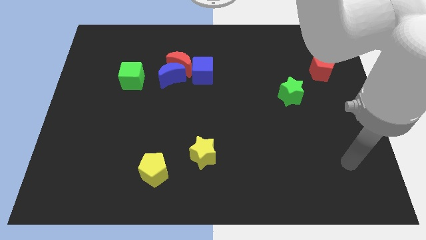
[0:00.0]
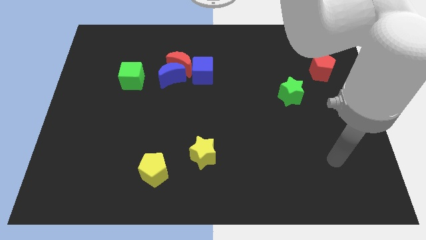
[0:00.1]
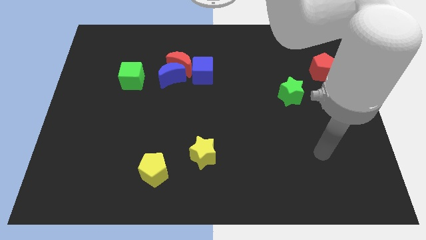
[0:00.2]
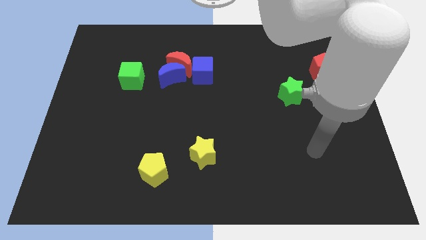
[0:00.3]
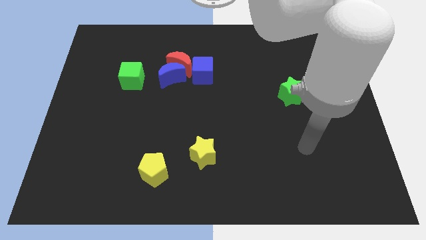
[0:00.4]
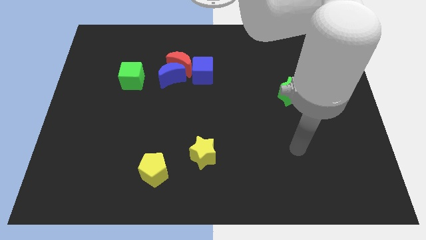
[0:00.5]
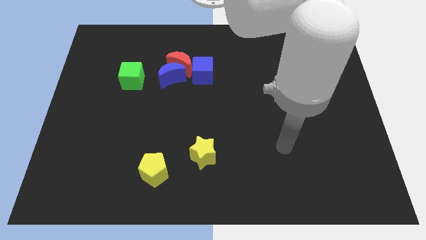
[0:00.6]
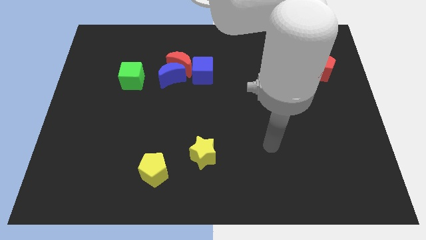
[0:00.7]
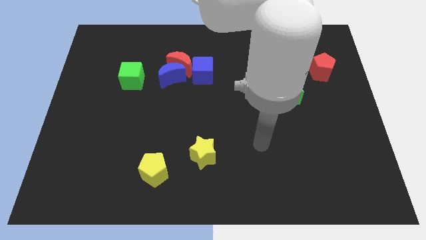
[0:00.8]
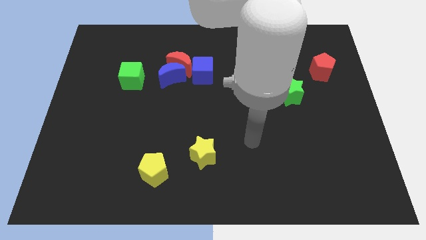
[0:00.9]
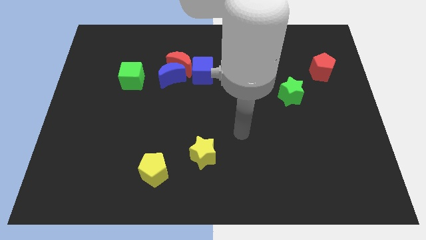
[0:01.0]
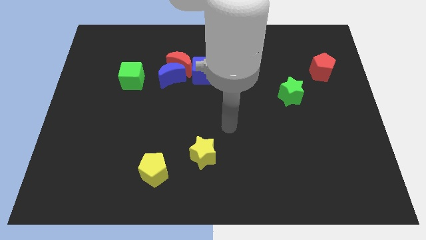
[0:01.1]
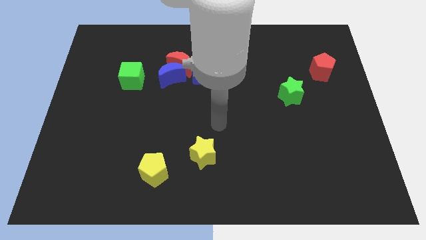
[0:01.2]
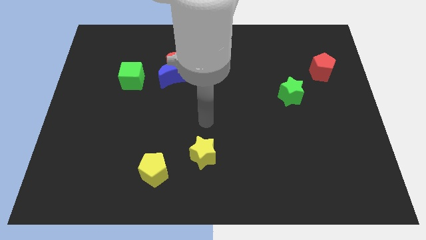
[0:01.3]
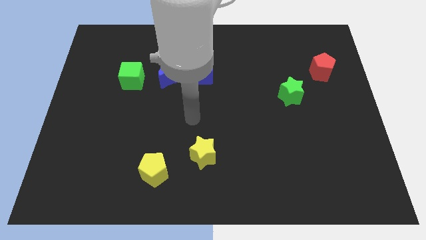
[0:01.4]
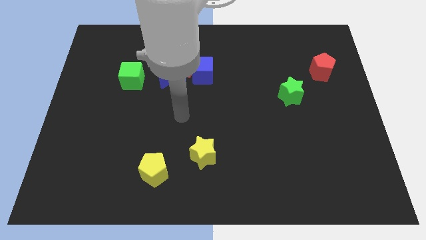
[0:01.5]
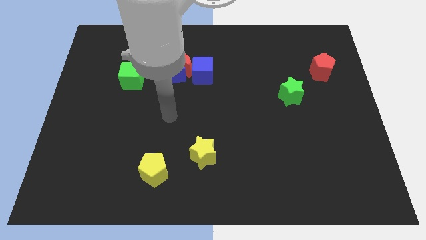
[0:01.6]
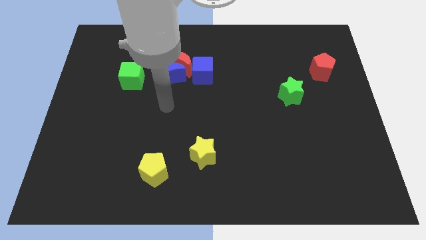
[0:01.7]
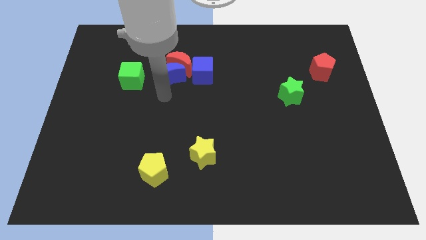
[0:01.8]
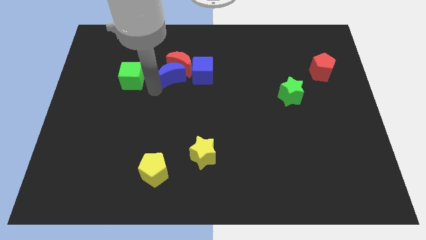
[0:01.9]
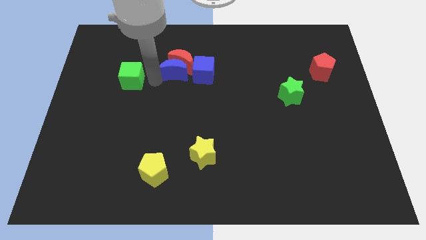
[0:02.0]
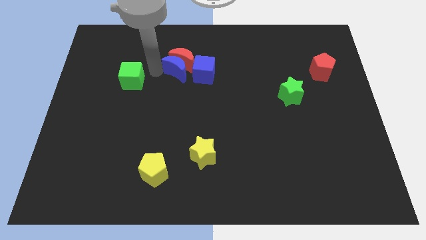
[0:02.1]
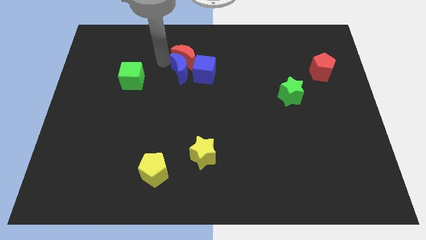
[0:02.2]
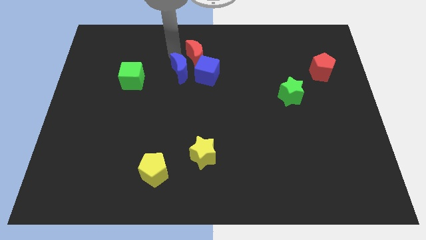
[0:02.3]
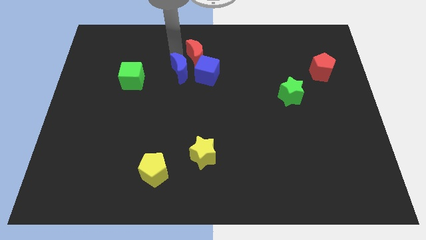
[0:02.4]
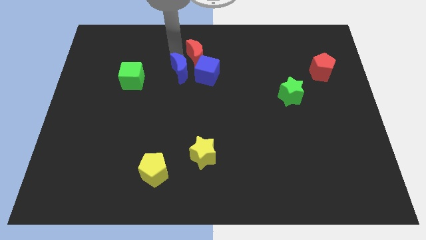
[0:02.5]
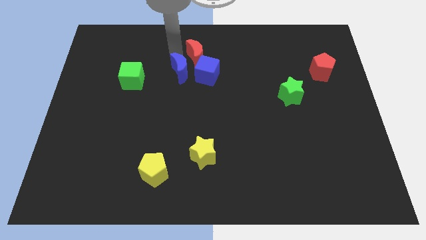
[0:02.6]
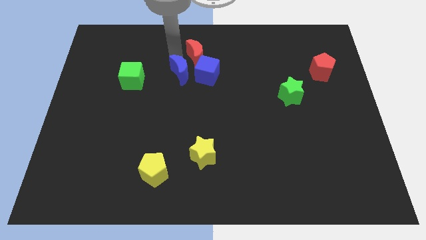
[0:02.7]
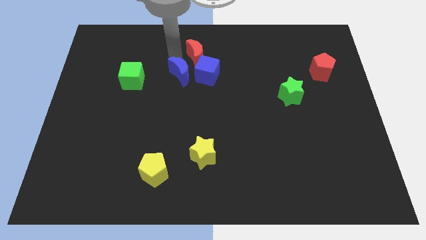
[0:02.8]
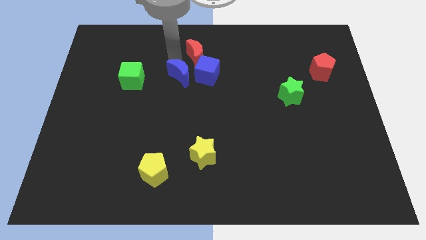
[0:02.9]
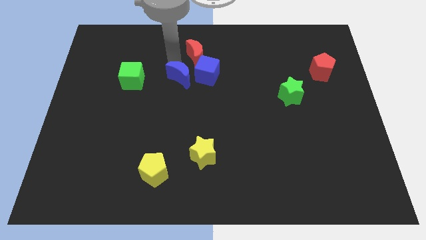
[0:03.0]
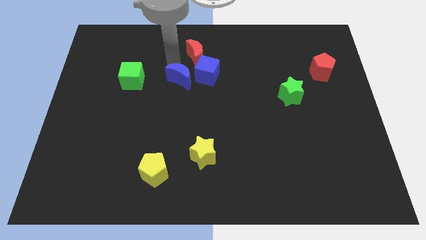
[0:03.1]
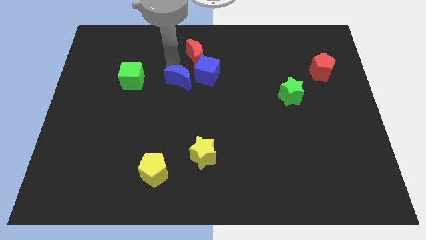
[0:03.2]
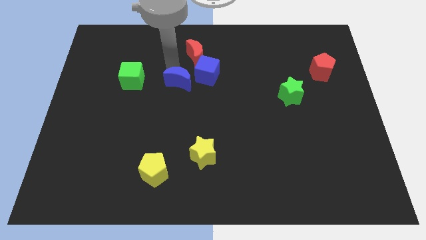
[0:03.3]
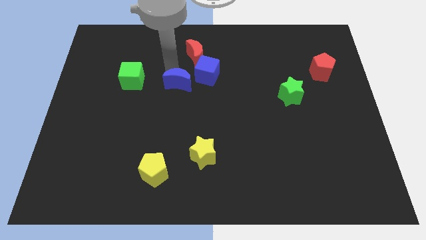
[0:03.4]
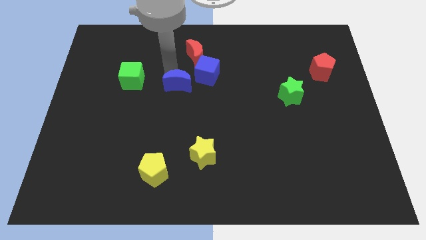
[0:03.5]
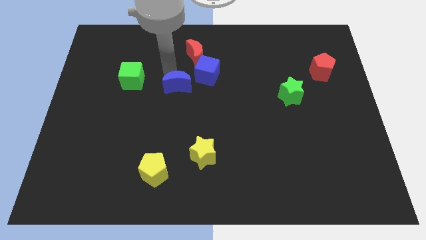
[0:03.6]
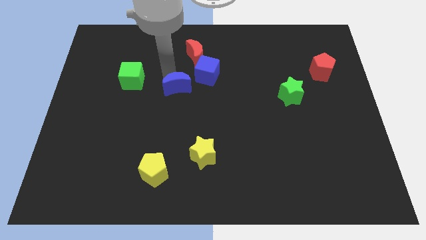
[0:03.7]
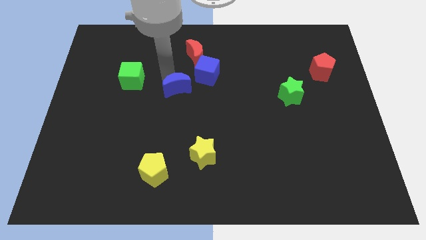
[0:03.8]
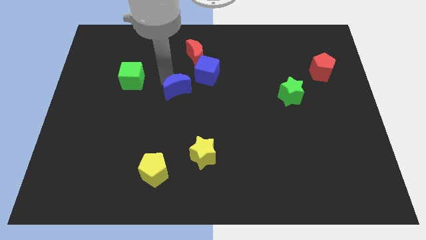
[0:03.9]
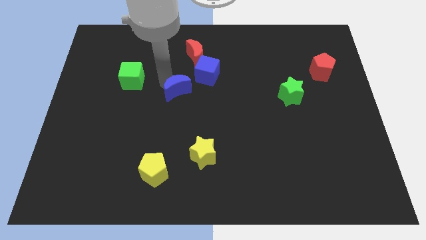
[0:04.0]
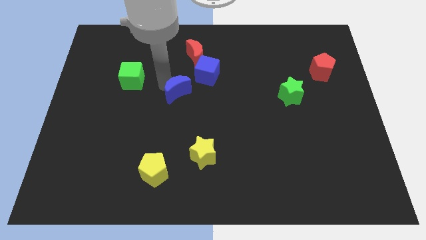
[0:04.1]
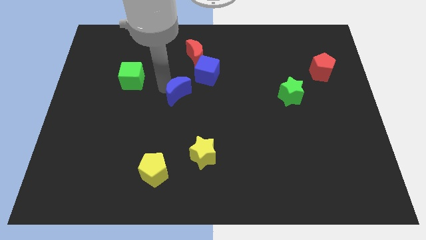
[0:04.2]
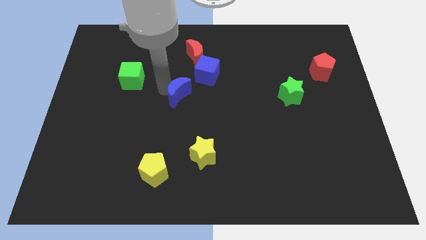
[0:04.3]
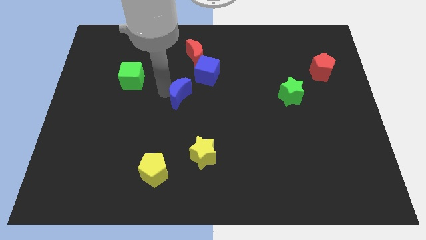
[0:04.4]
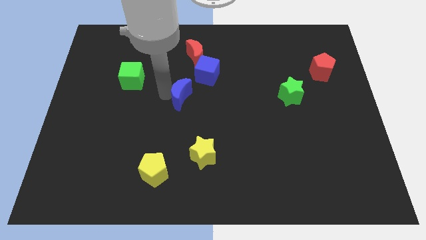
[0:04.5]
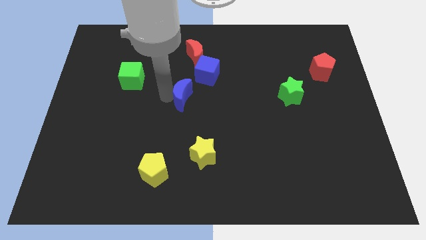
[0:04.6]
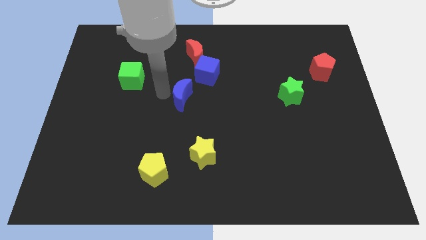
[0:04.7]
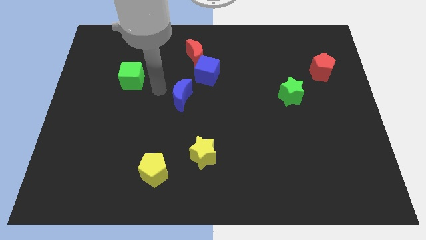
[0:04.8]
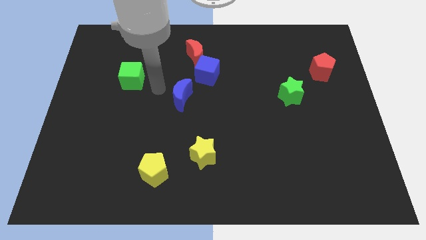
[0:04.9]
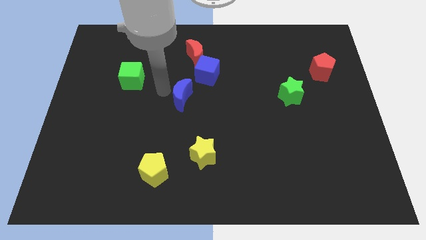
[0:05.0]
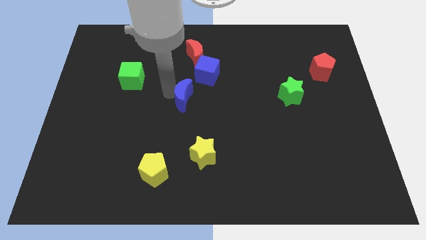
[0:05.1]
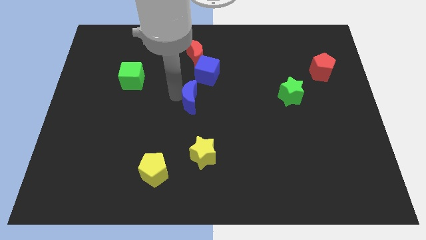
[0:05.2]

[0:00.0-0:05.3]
slide the blue moon to the bottom of the blue cube

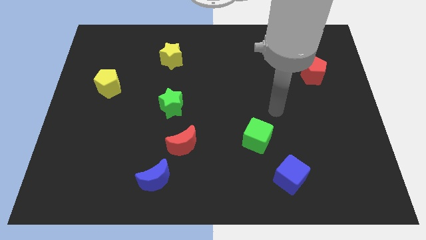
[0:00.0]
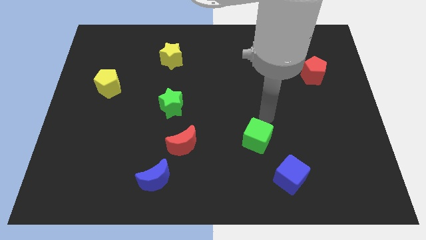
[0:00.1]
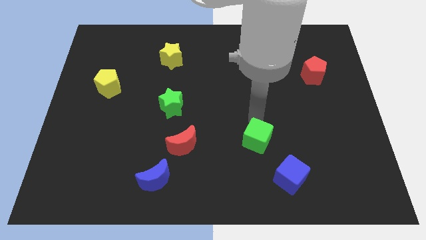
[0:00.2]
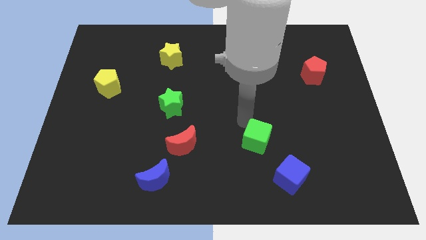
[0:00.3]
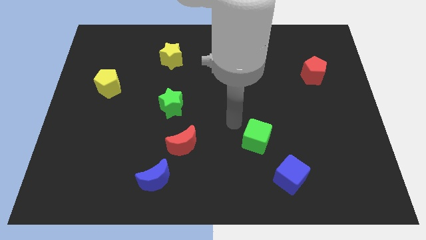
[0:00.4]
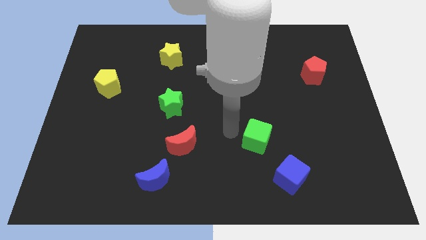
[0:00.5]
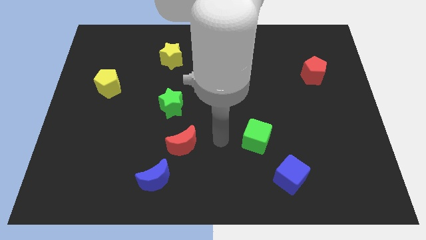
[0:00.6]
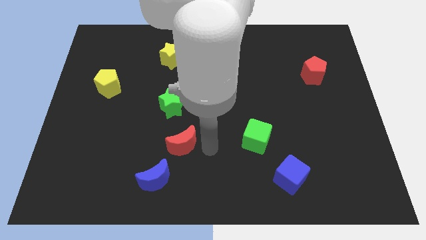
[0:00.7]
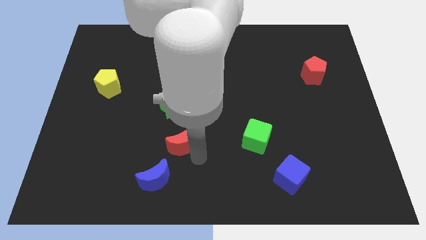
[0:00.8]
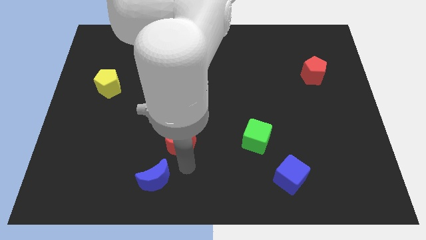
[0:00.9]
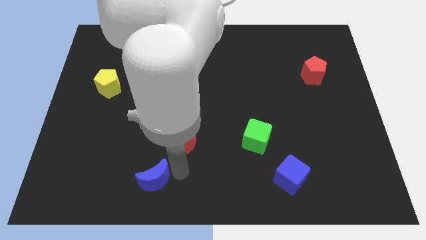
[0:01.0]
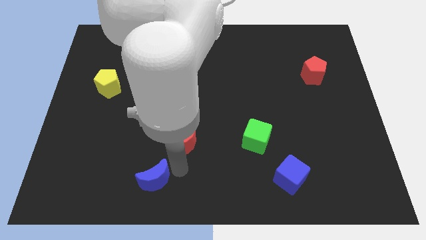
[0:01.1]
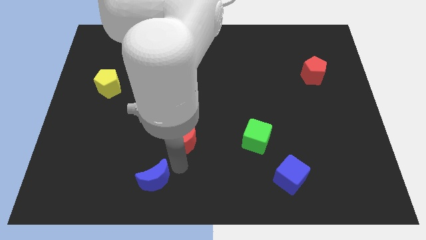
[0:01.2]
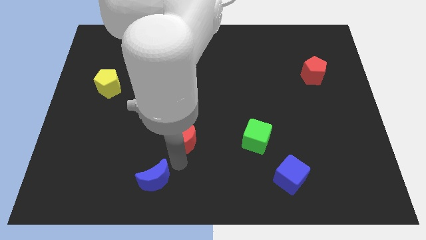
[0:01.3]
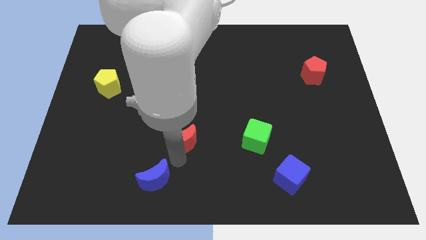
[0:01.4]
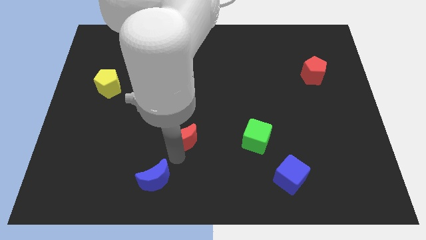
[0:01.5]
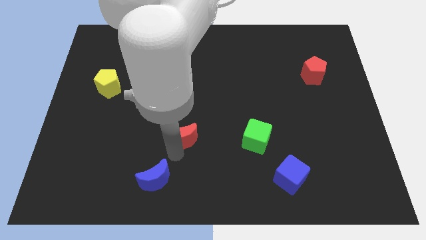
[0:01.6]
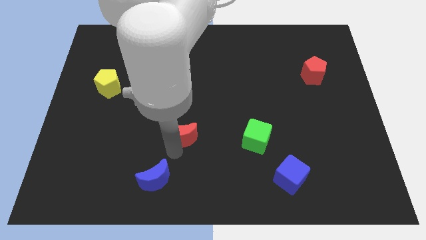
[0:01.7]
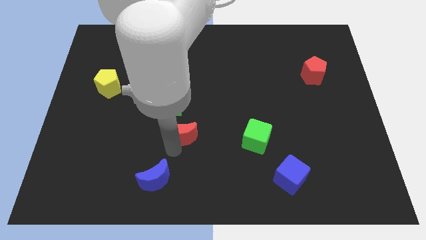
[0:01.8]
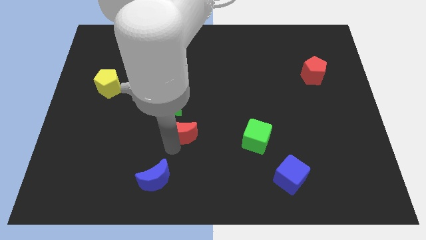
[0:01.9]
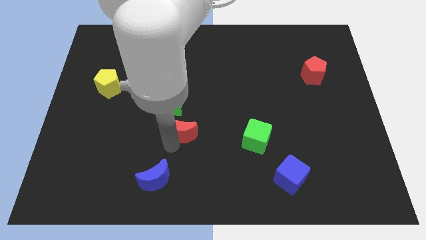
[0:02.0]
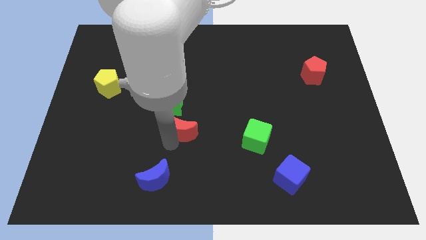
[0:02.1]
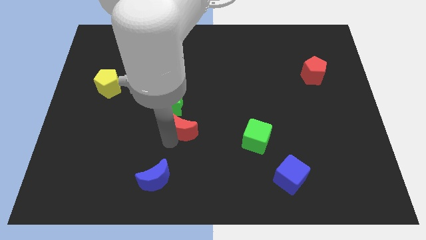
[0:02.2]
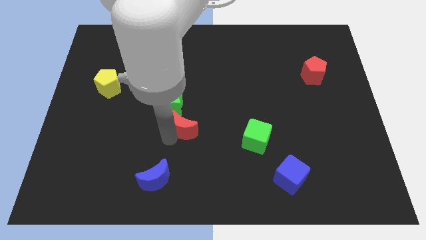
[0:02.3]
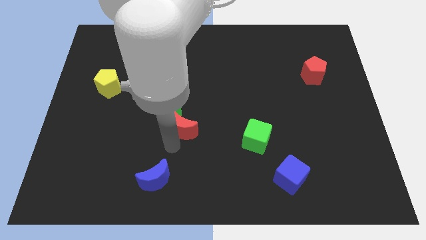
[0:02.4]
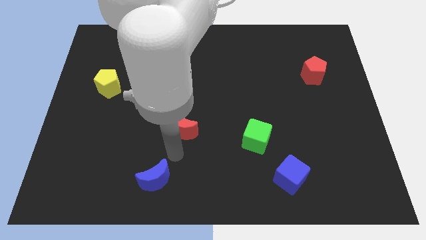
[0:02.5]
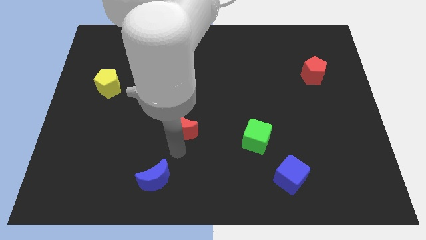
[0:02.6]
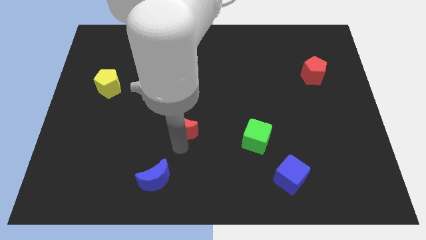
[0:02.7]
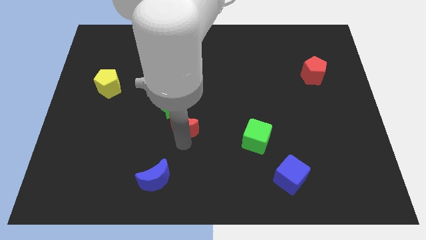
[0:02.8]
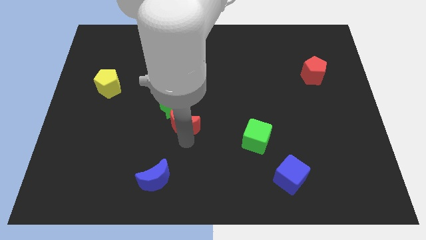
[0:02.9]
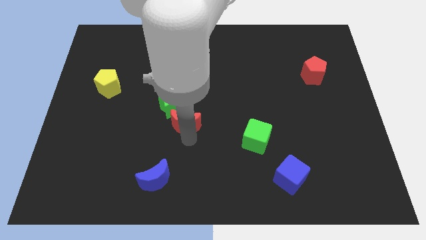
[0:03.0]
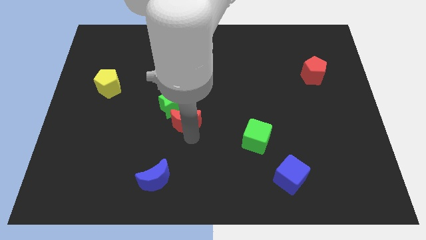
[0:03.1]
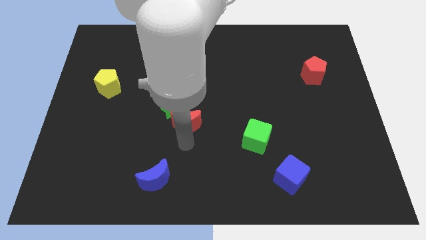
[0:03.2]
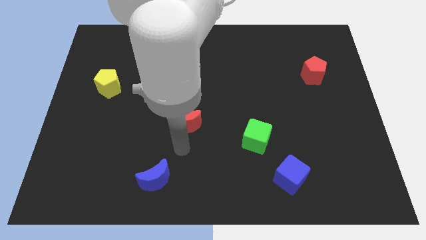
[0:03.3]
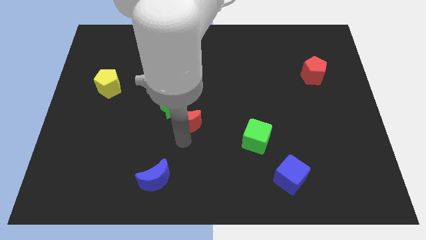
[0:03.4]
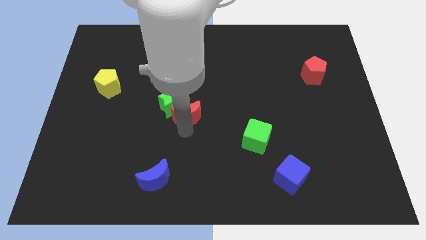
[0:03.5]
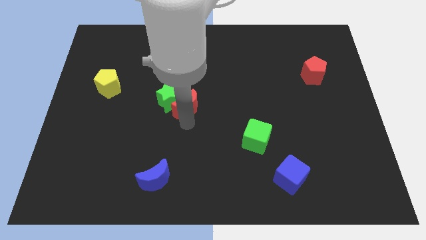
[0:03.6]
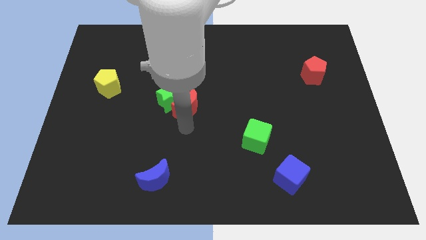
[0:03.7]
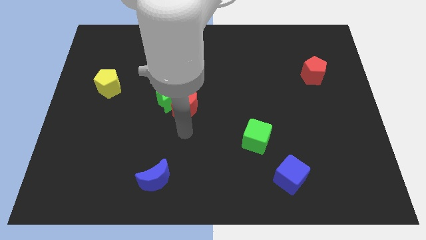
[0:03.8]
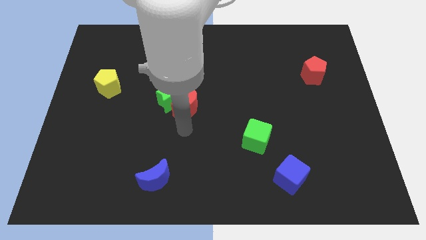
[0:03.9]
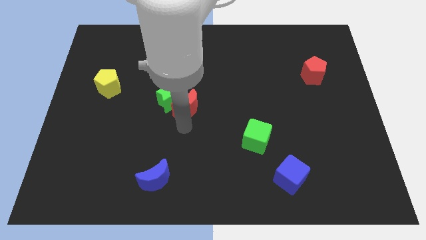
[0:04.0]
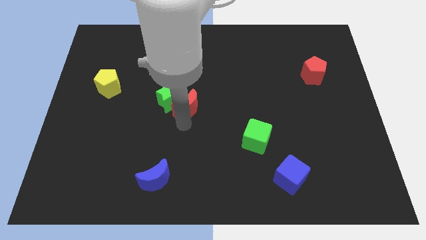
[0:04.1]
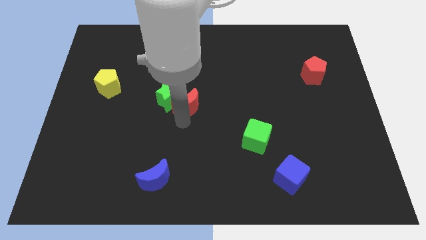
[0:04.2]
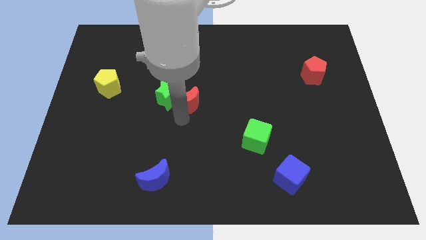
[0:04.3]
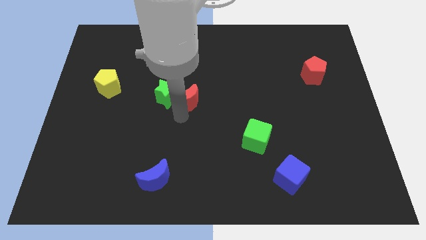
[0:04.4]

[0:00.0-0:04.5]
move the red moon to the top right of the green star
